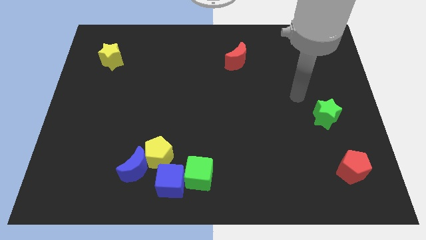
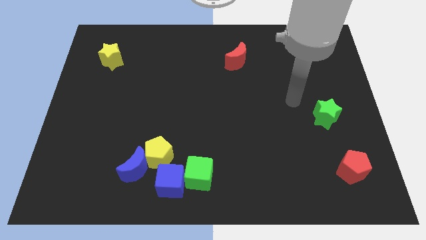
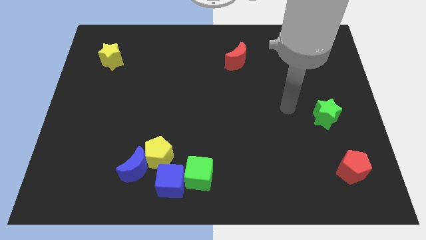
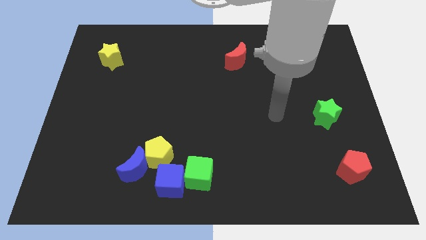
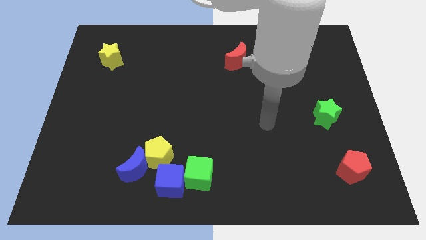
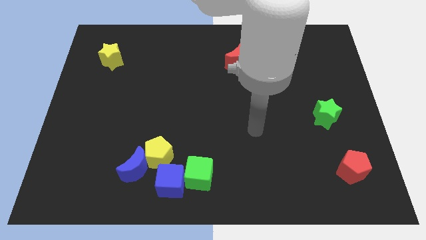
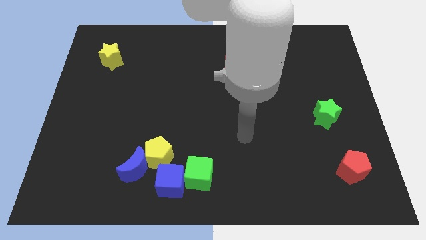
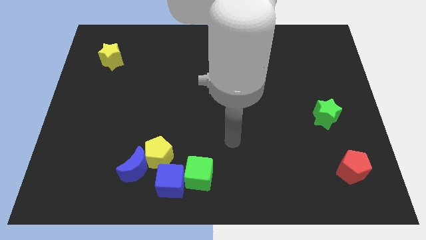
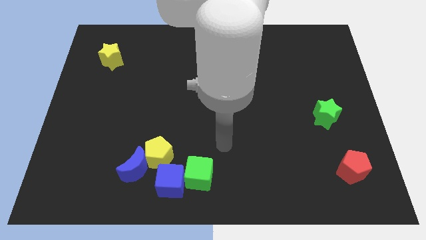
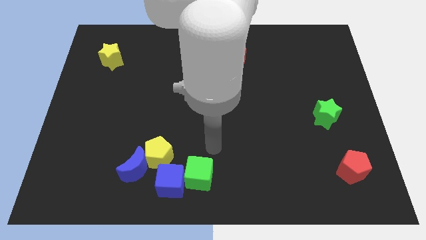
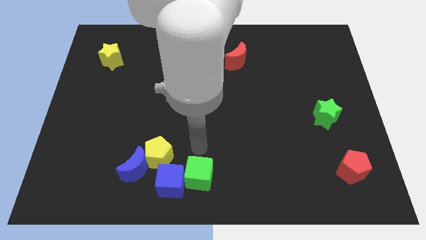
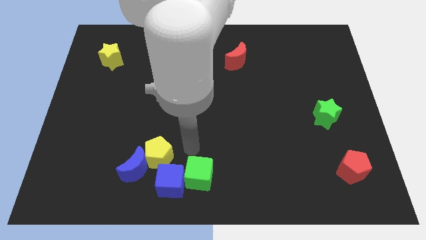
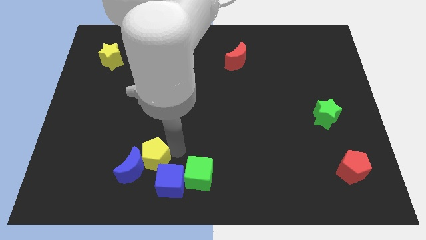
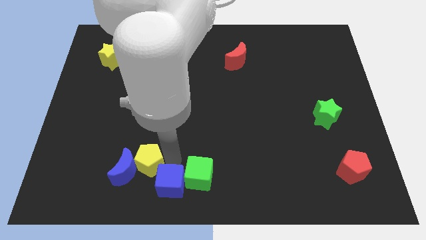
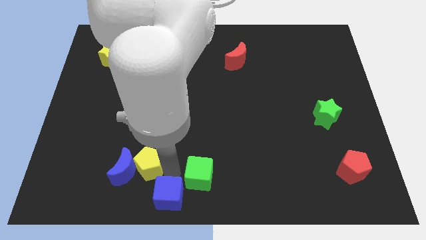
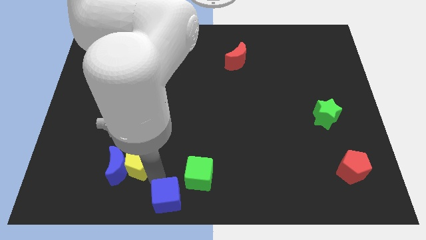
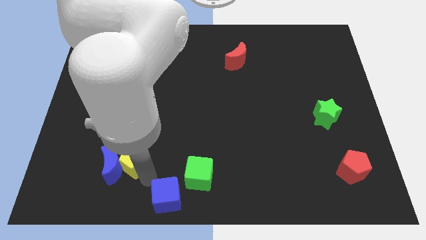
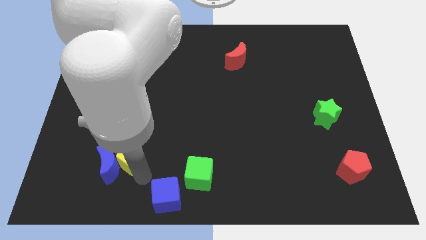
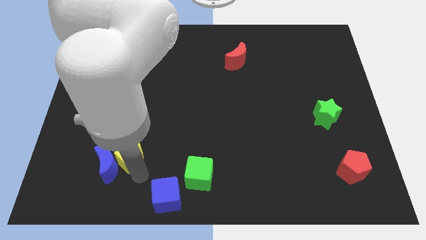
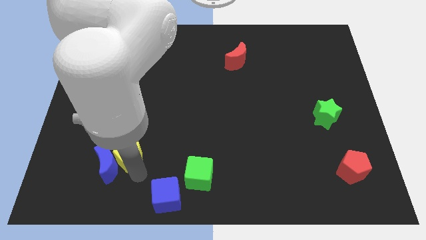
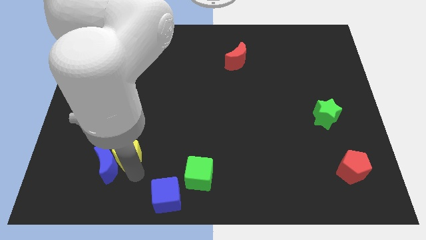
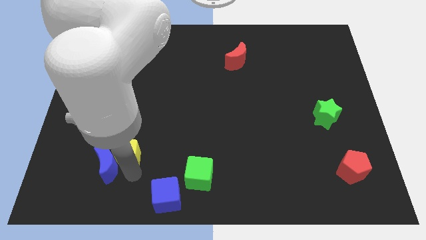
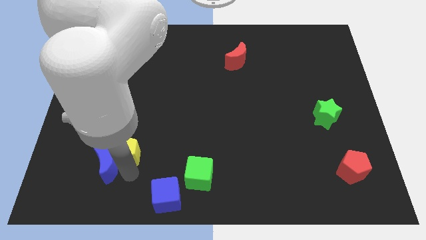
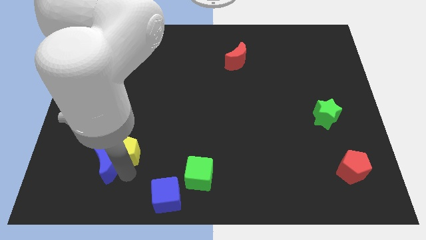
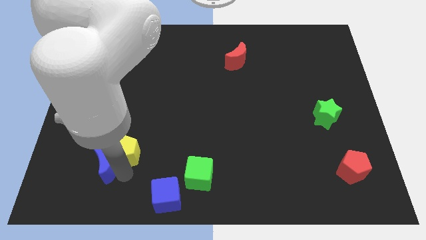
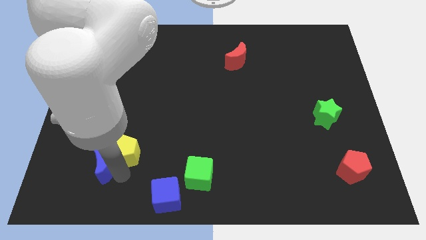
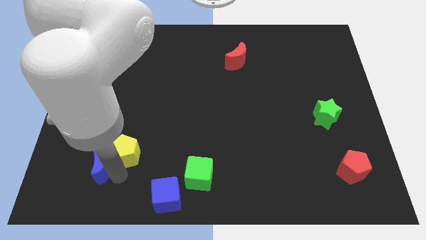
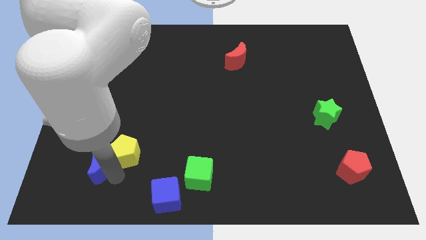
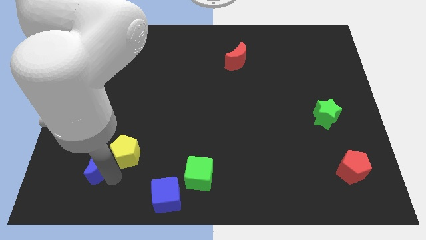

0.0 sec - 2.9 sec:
pull the blue moon apart from the yellow pentagon and blue cube

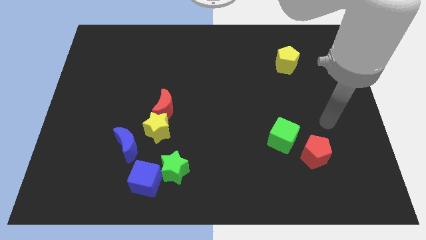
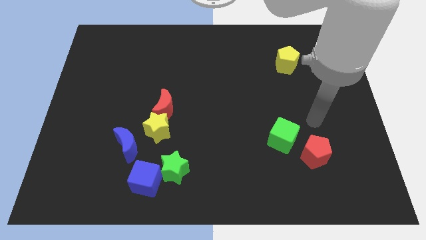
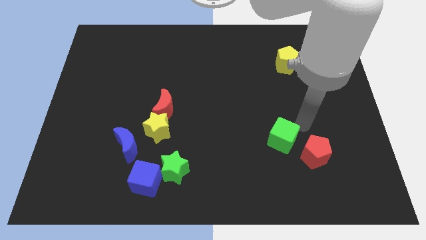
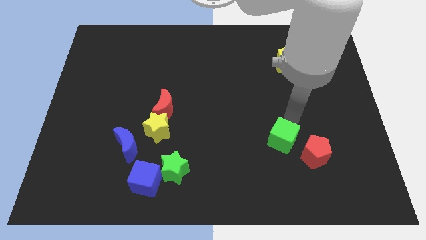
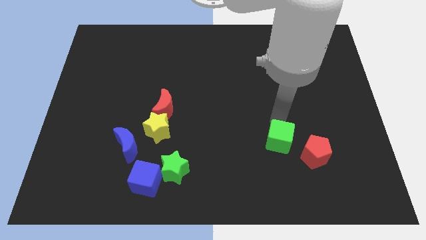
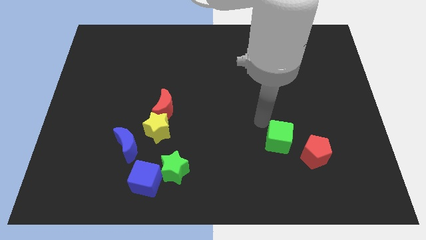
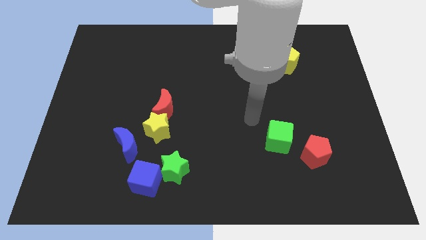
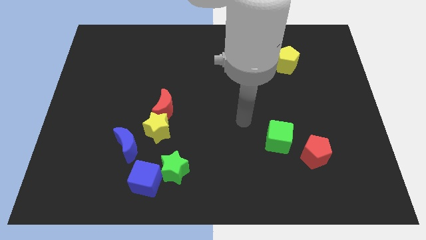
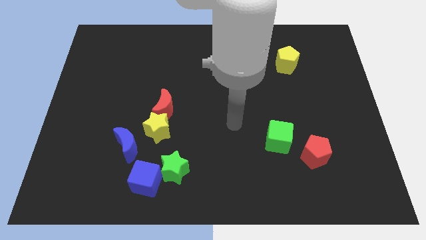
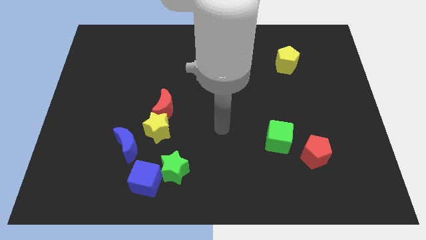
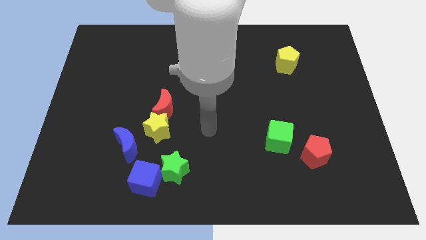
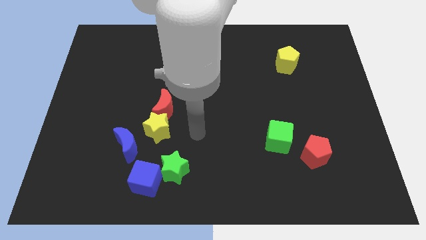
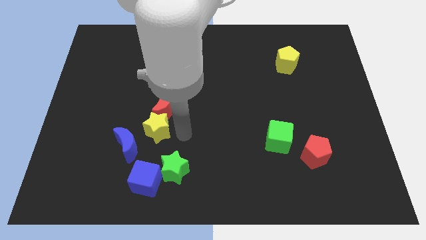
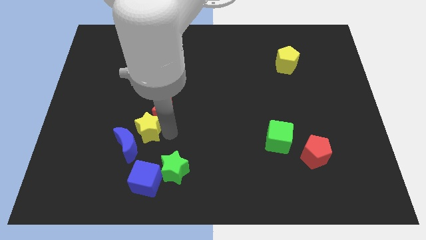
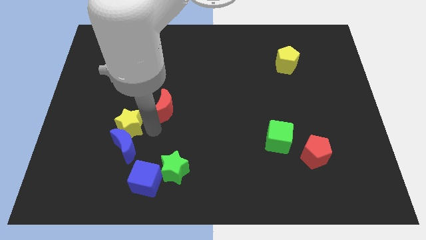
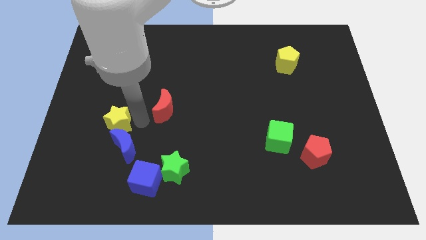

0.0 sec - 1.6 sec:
pull the red moon apart from the yellow star

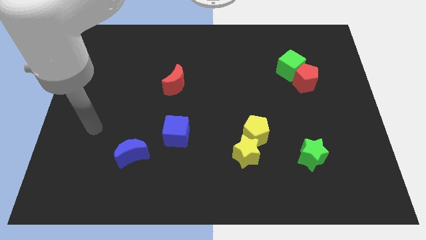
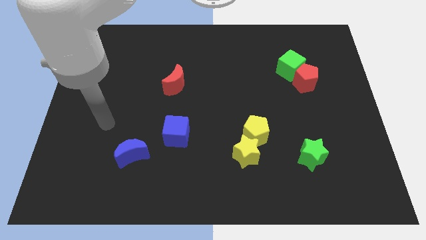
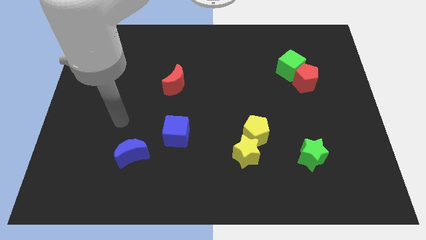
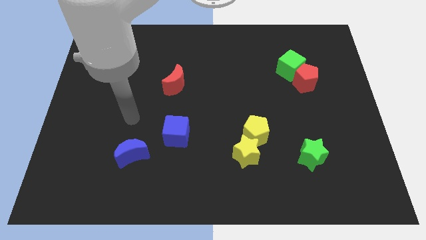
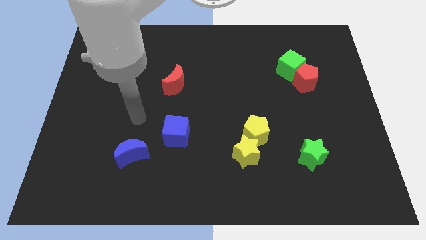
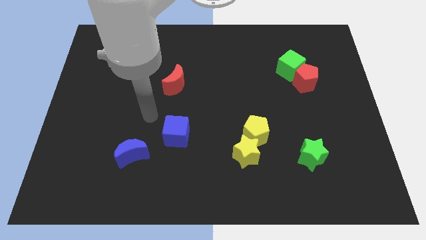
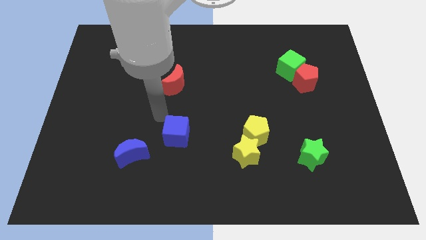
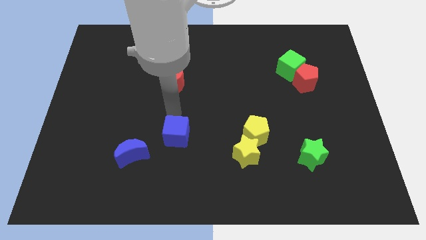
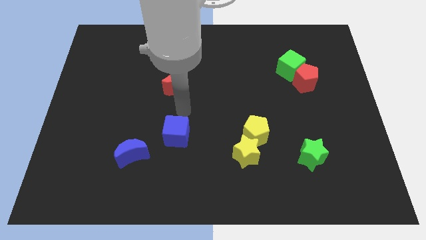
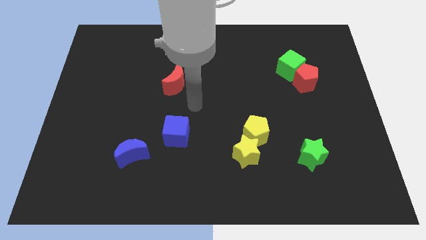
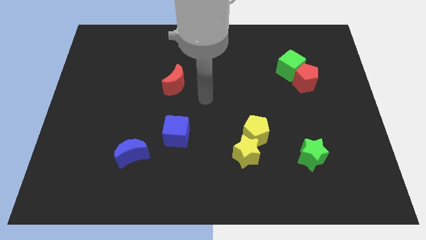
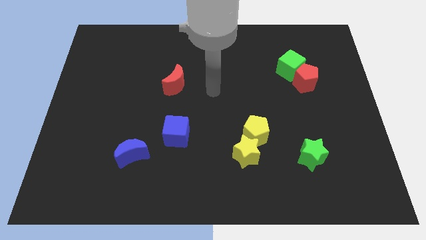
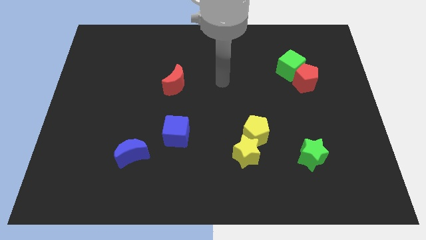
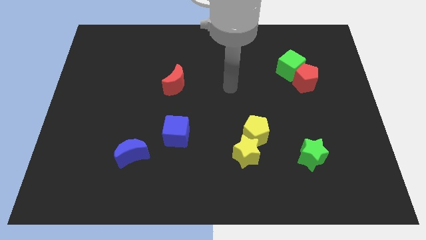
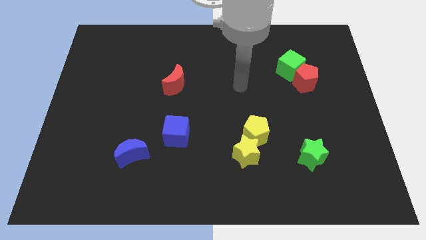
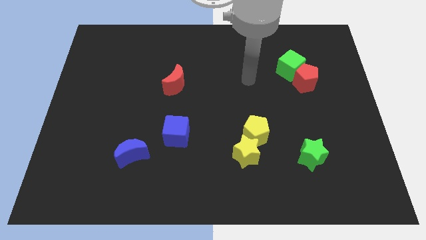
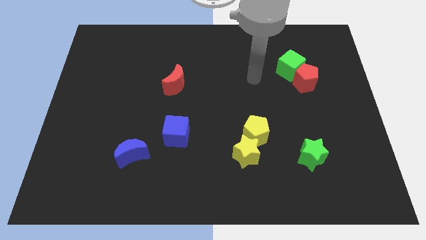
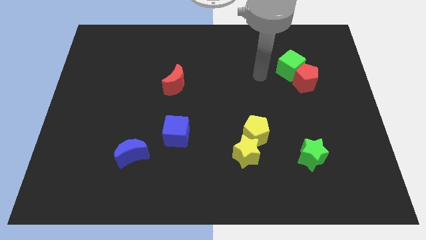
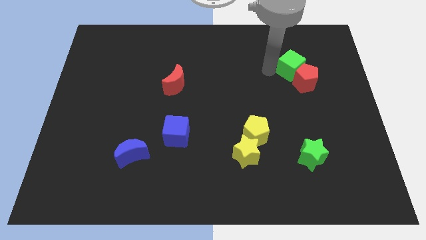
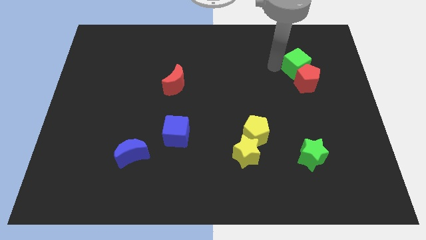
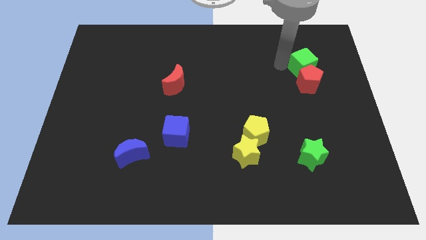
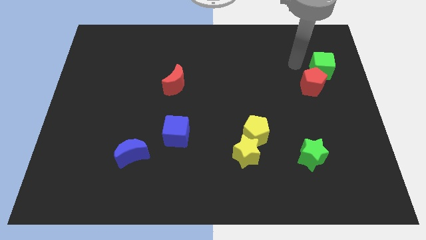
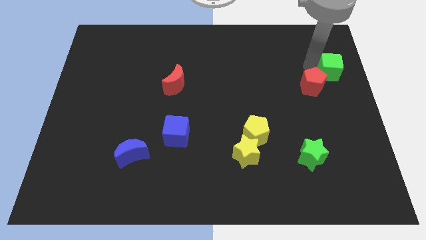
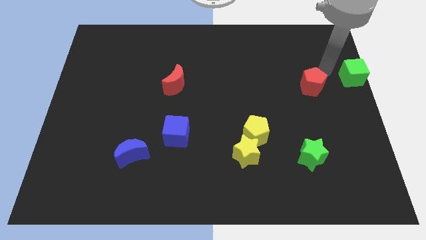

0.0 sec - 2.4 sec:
pull the red pentagon apart from the green cube

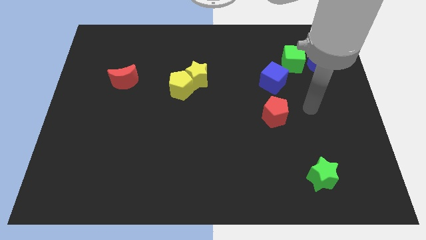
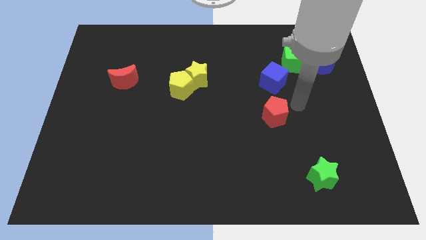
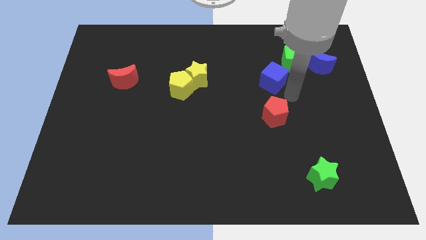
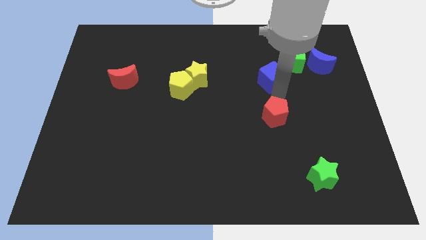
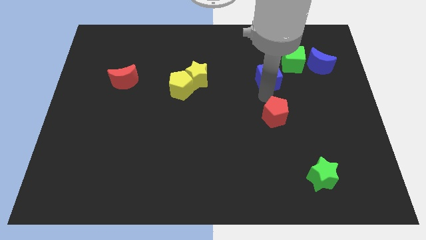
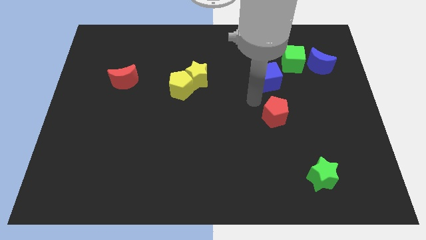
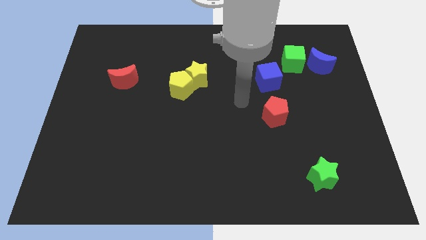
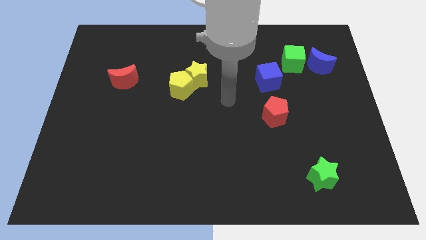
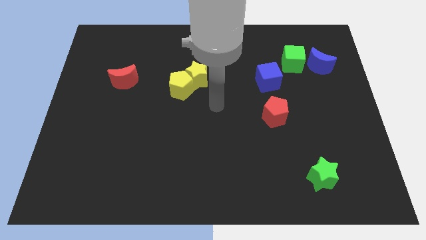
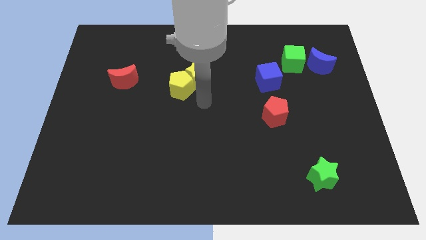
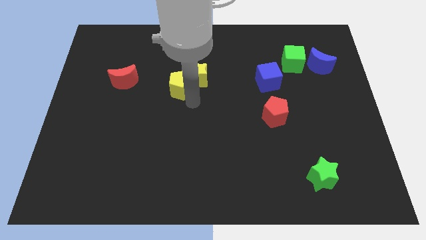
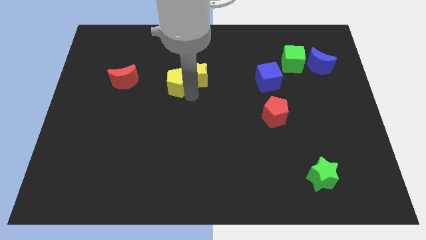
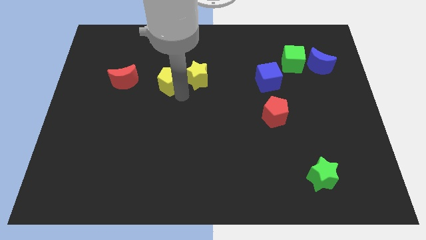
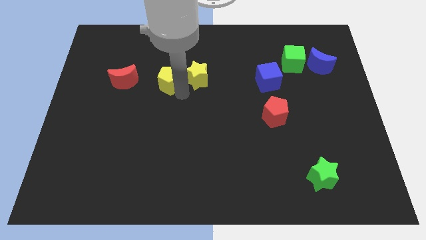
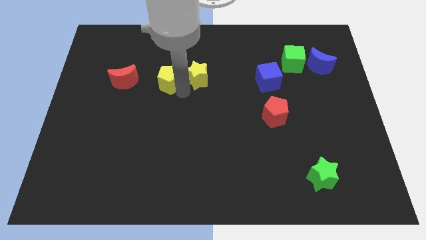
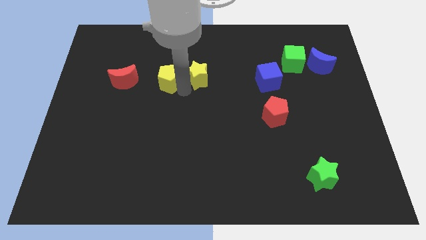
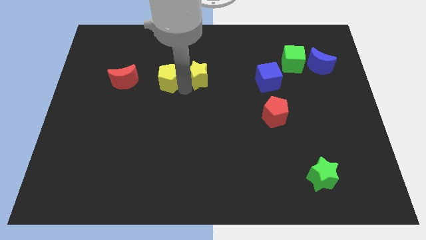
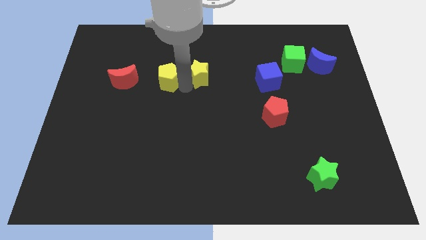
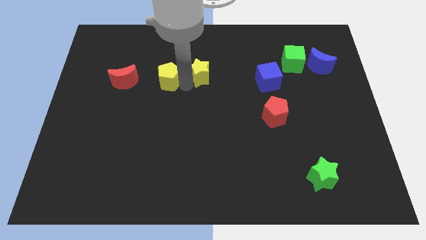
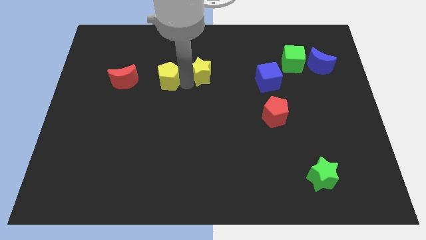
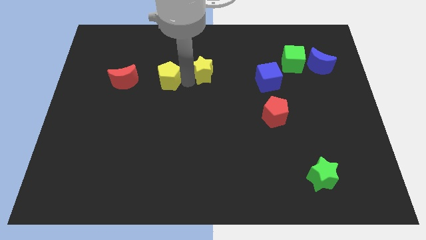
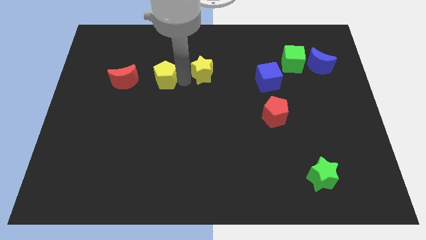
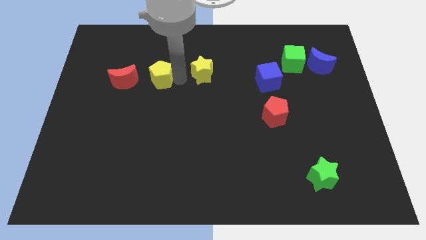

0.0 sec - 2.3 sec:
move the yellow star away from the yellow pentagon
